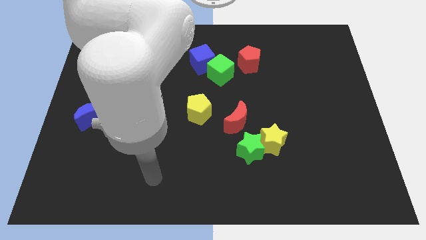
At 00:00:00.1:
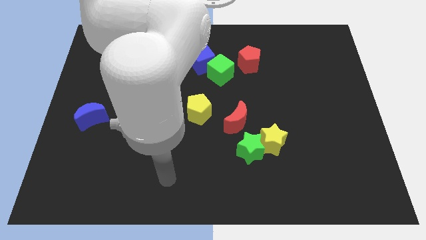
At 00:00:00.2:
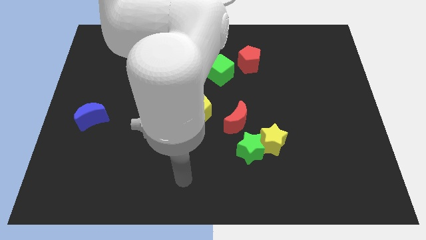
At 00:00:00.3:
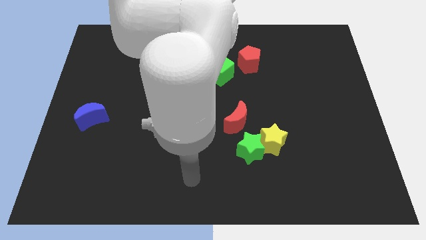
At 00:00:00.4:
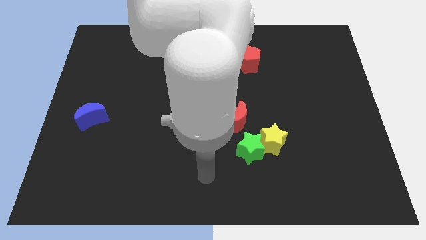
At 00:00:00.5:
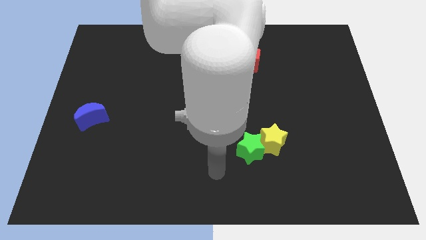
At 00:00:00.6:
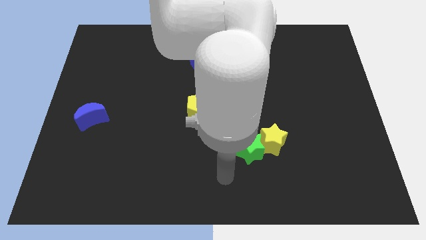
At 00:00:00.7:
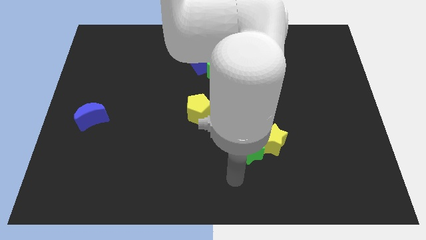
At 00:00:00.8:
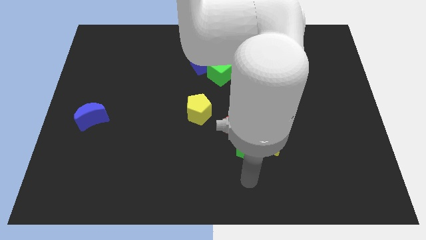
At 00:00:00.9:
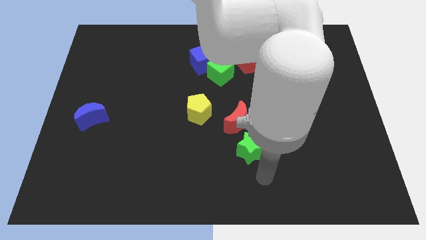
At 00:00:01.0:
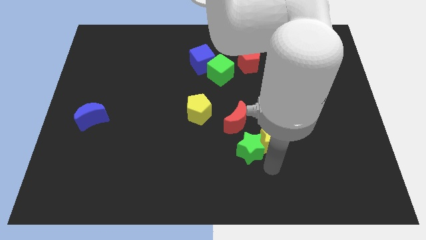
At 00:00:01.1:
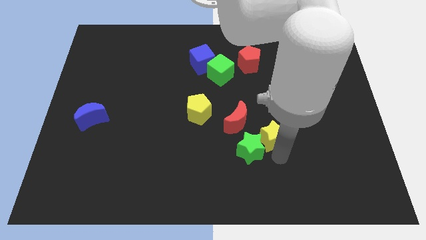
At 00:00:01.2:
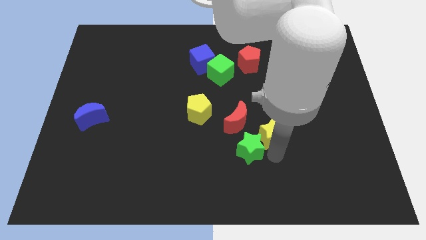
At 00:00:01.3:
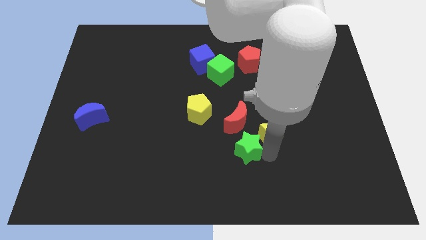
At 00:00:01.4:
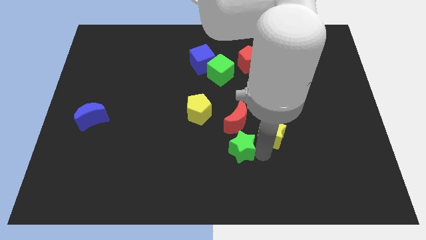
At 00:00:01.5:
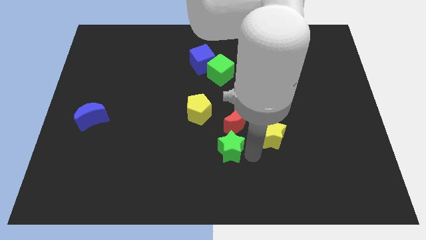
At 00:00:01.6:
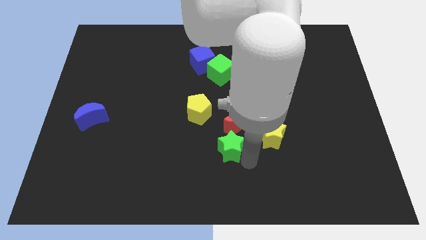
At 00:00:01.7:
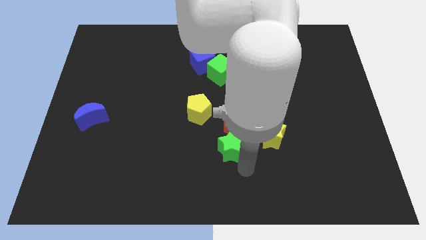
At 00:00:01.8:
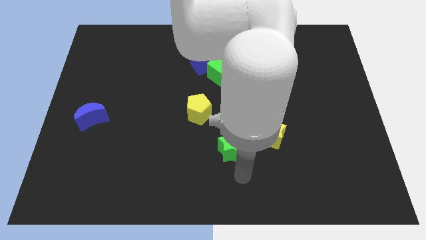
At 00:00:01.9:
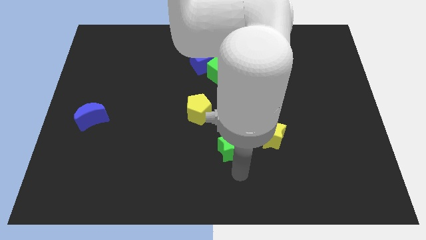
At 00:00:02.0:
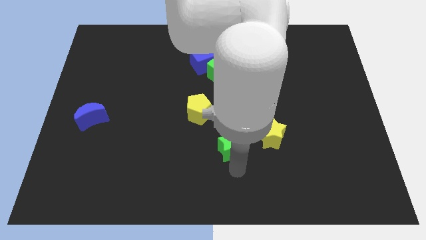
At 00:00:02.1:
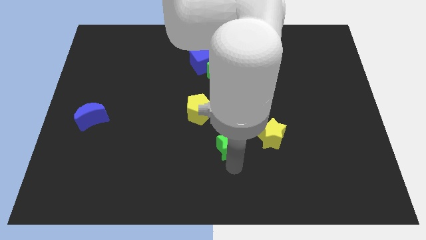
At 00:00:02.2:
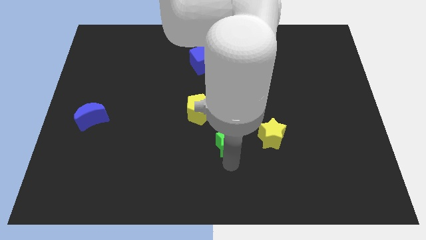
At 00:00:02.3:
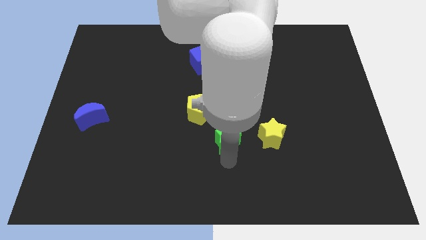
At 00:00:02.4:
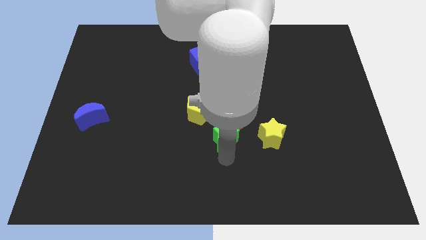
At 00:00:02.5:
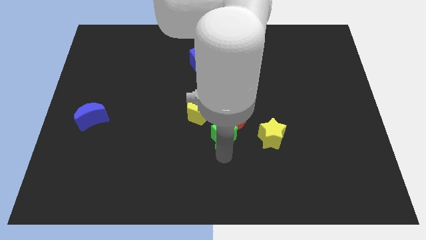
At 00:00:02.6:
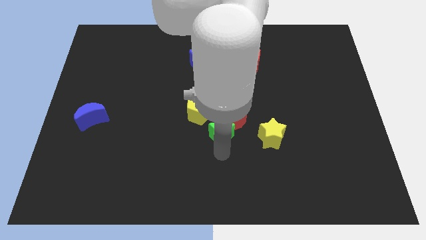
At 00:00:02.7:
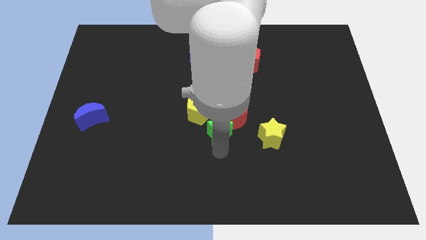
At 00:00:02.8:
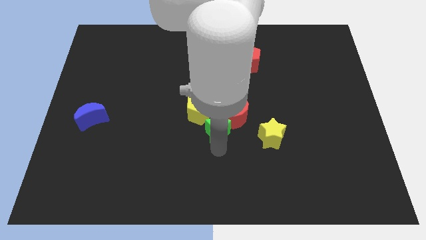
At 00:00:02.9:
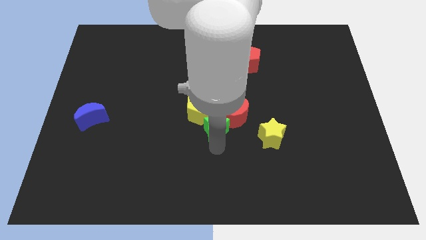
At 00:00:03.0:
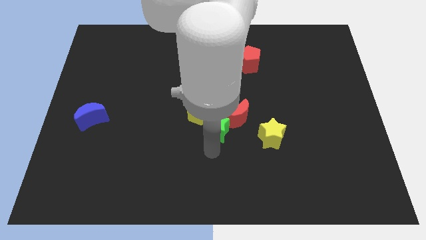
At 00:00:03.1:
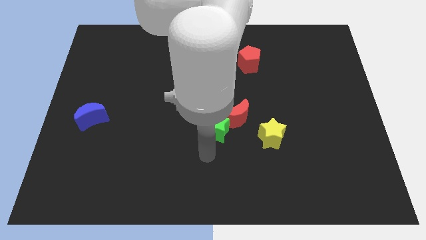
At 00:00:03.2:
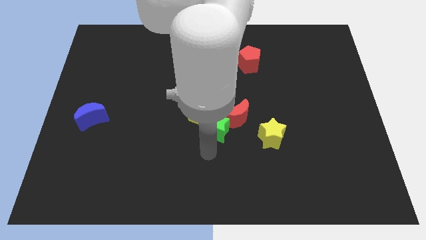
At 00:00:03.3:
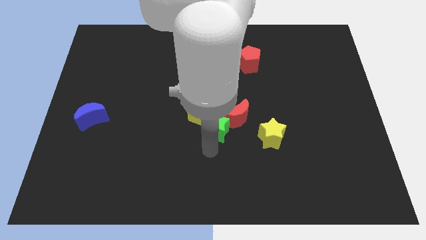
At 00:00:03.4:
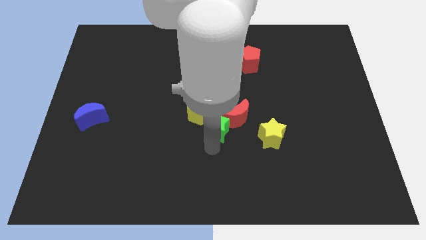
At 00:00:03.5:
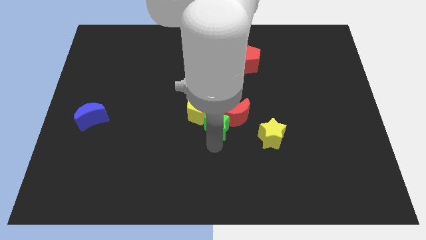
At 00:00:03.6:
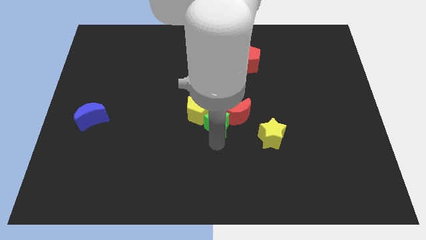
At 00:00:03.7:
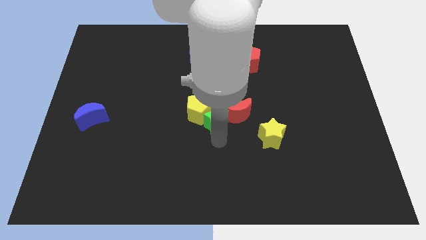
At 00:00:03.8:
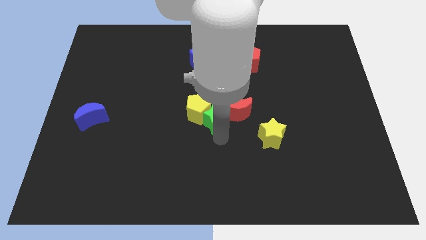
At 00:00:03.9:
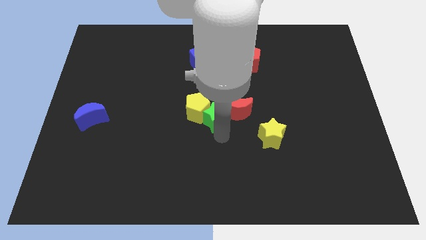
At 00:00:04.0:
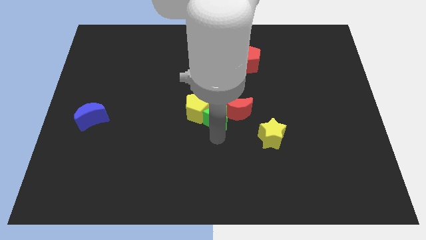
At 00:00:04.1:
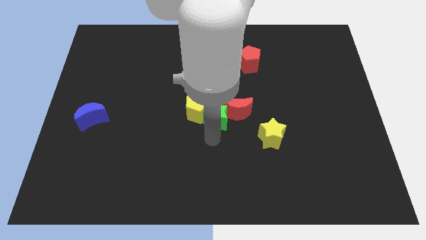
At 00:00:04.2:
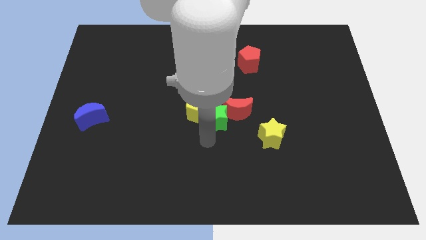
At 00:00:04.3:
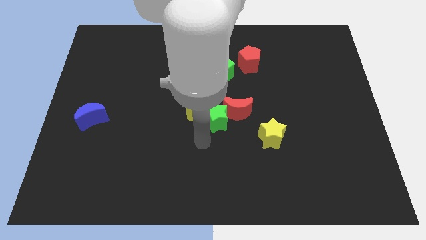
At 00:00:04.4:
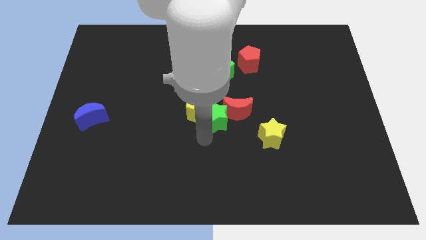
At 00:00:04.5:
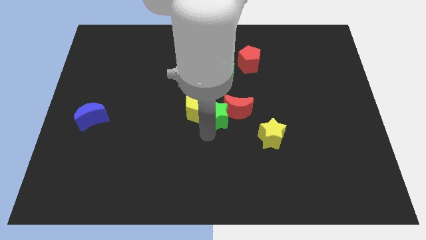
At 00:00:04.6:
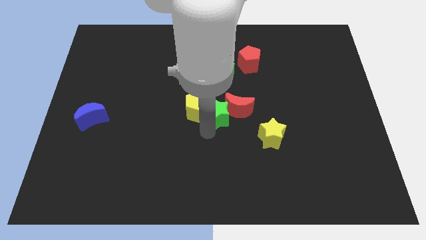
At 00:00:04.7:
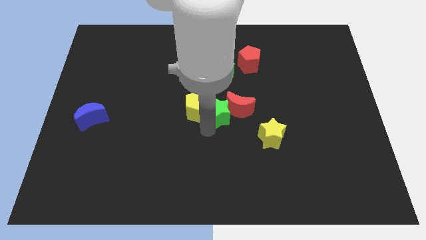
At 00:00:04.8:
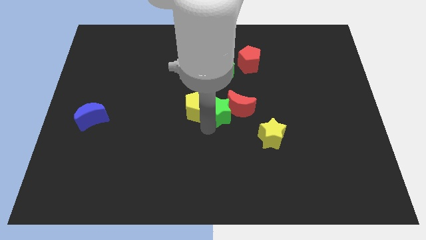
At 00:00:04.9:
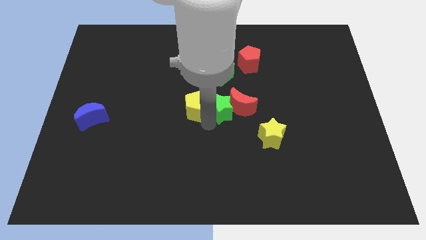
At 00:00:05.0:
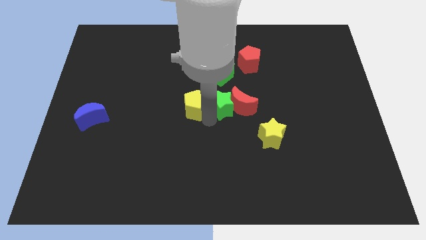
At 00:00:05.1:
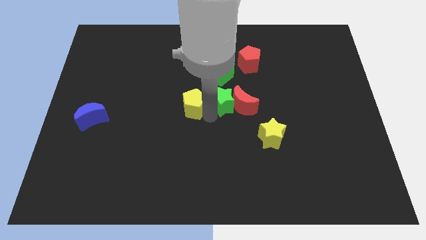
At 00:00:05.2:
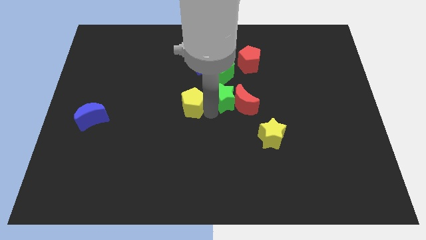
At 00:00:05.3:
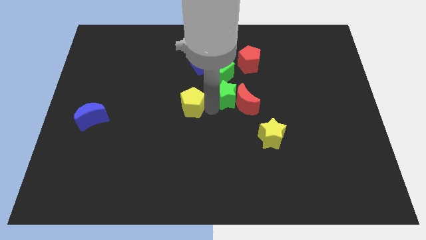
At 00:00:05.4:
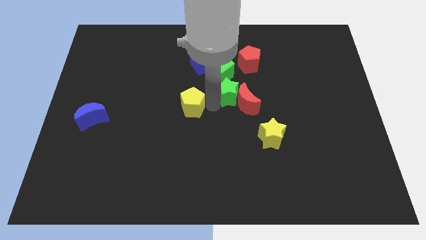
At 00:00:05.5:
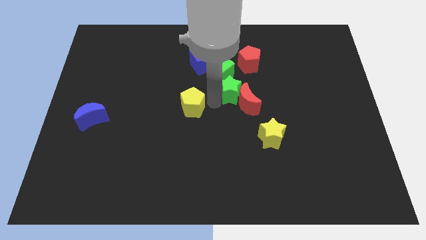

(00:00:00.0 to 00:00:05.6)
push the green star to the top of the red moon

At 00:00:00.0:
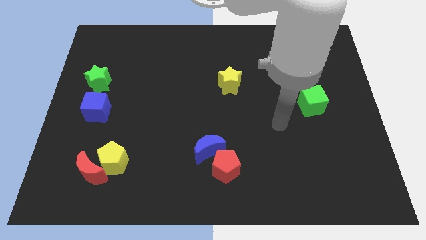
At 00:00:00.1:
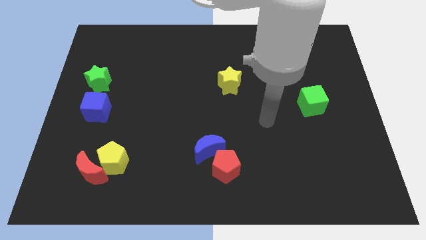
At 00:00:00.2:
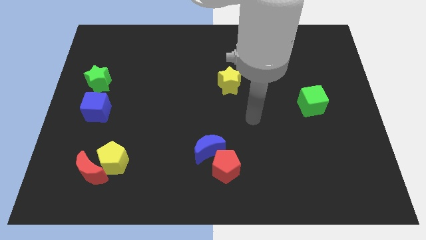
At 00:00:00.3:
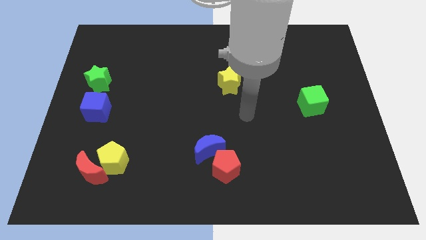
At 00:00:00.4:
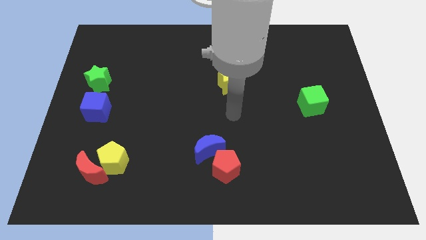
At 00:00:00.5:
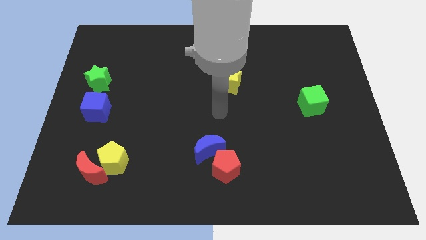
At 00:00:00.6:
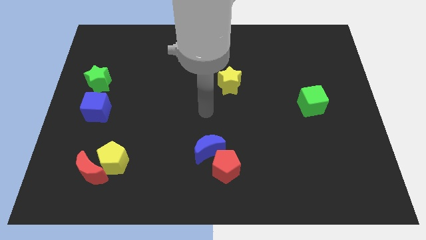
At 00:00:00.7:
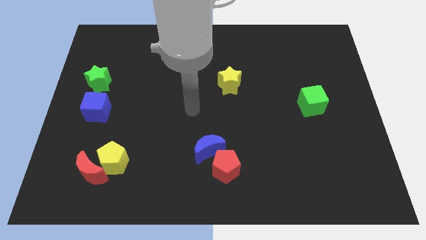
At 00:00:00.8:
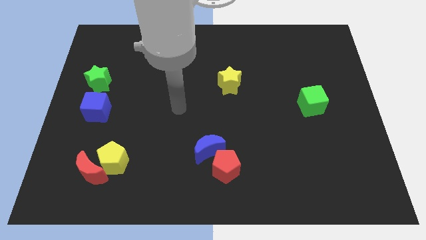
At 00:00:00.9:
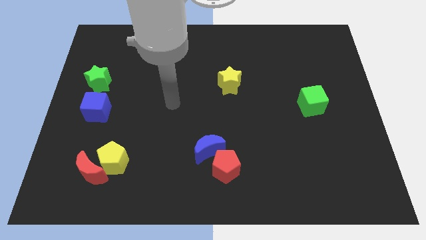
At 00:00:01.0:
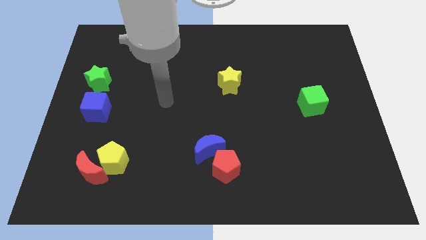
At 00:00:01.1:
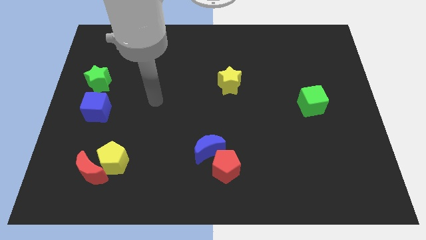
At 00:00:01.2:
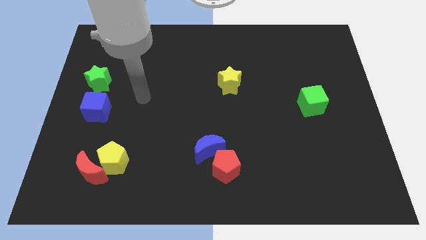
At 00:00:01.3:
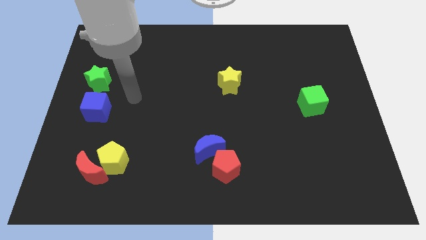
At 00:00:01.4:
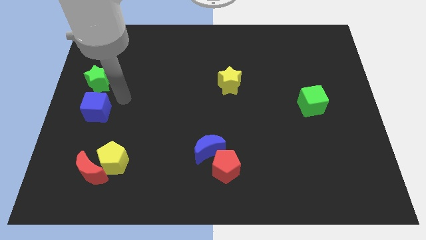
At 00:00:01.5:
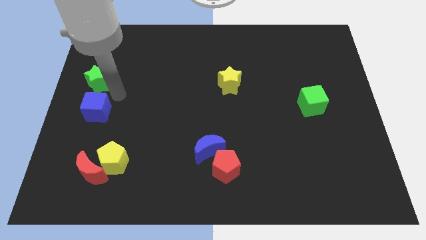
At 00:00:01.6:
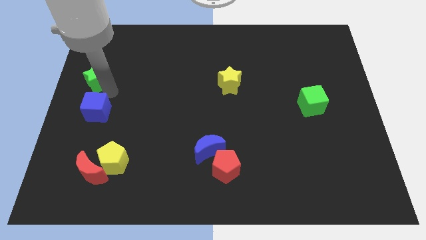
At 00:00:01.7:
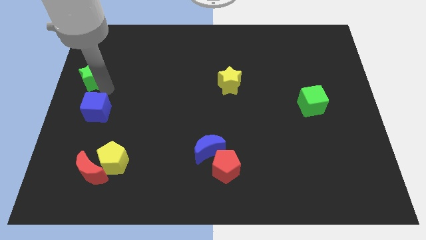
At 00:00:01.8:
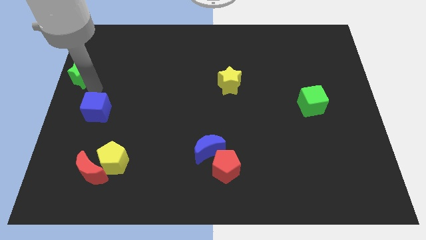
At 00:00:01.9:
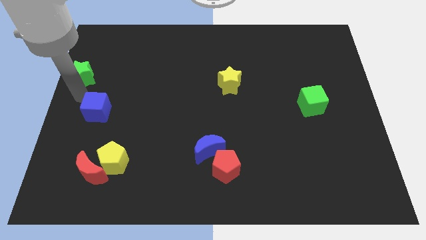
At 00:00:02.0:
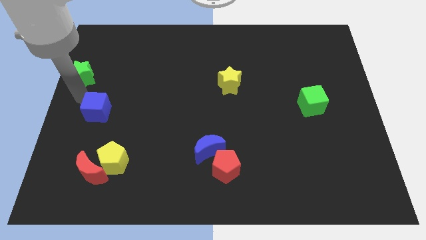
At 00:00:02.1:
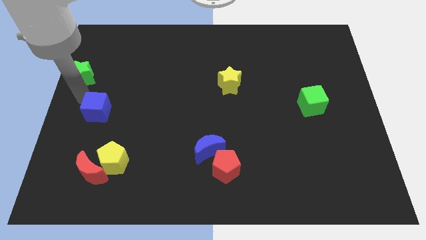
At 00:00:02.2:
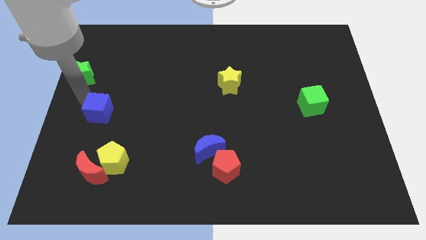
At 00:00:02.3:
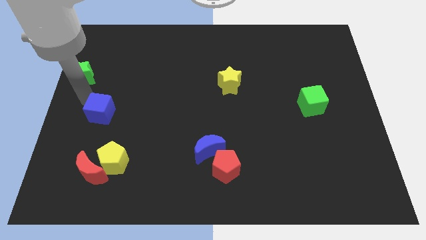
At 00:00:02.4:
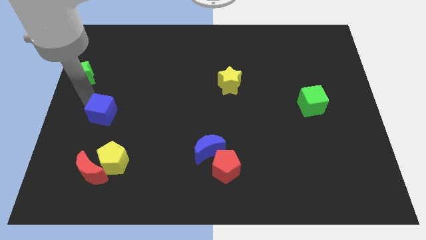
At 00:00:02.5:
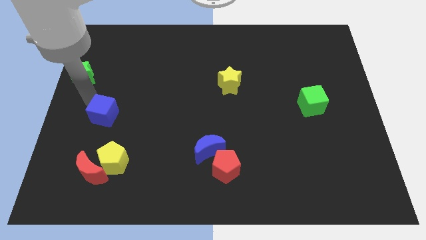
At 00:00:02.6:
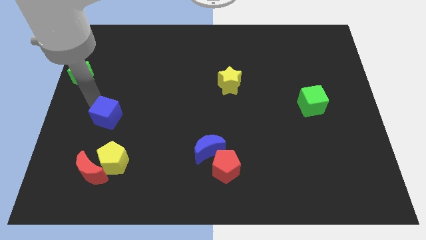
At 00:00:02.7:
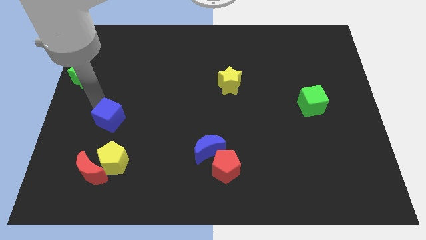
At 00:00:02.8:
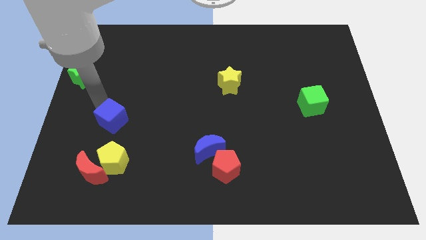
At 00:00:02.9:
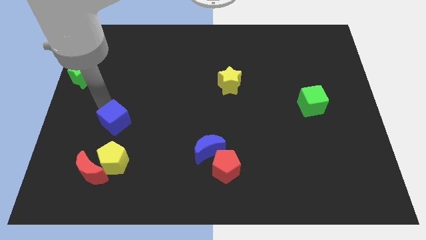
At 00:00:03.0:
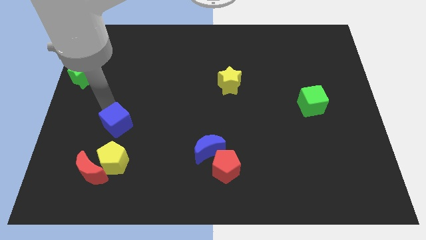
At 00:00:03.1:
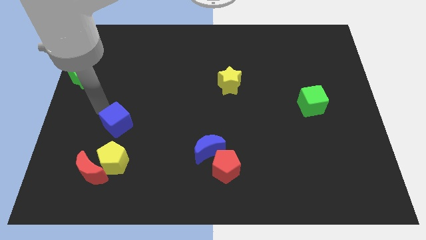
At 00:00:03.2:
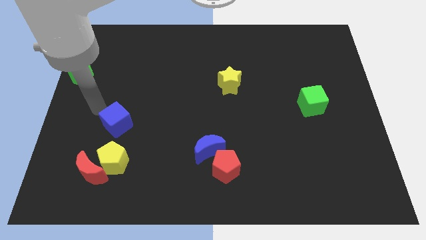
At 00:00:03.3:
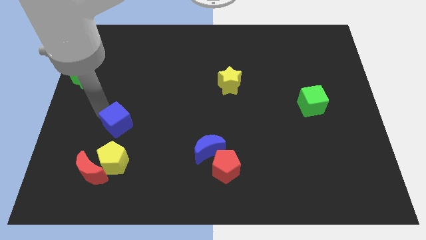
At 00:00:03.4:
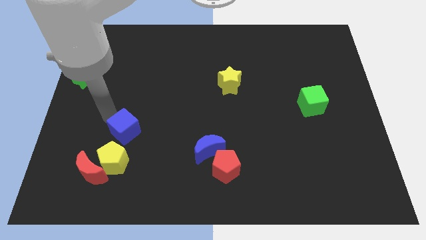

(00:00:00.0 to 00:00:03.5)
move the blue cube diagonally up and to the right of the yellow pentagon
